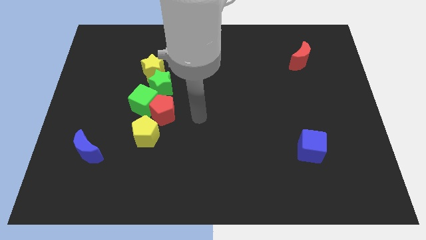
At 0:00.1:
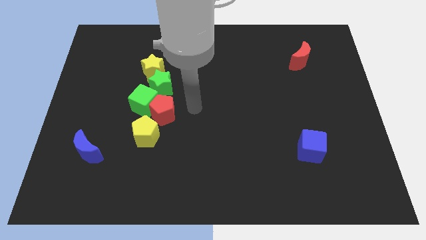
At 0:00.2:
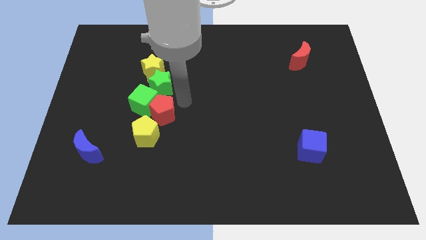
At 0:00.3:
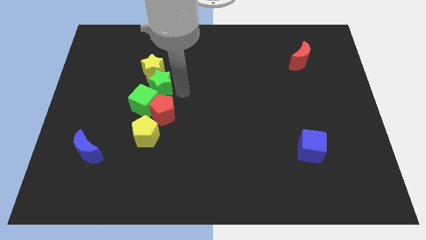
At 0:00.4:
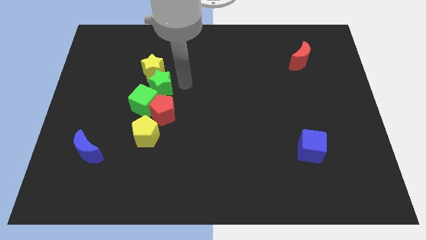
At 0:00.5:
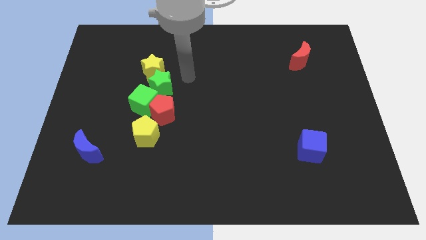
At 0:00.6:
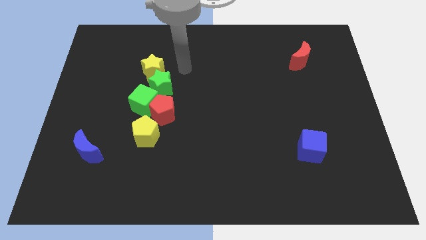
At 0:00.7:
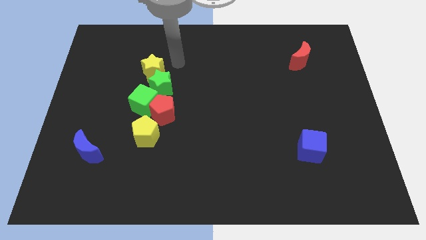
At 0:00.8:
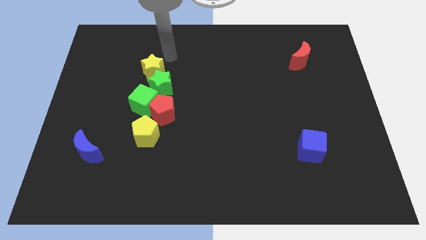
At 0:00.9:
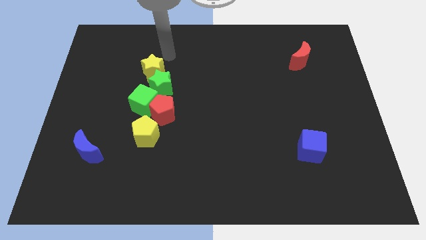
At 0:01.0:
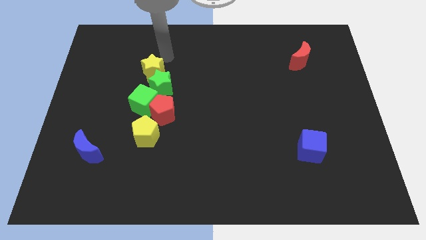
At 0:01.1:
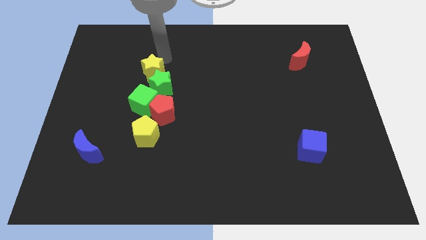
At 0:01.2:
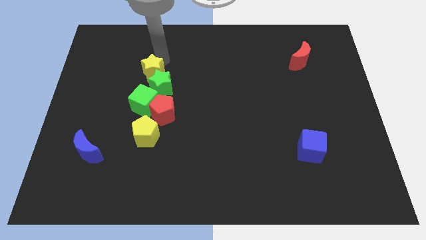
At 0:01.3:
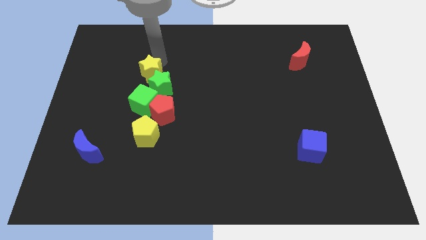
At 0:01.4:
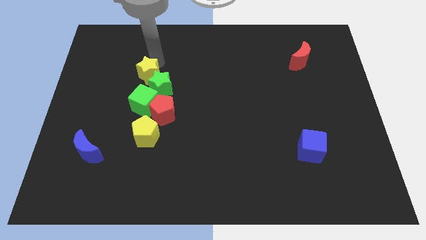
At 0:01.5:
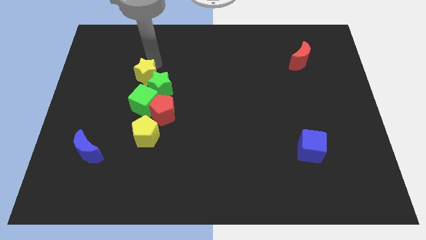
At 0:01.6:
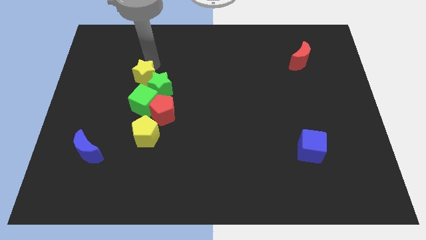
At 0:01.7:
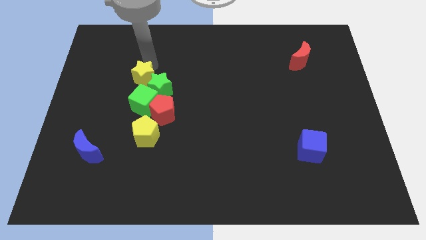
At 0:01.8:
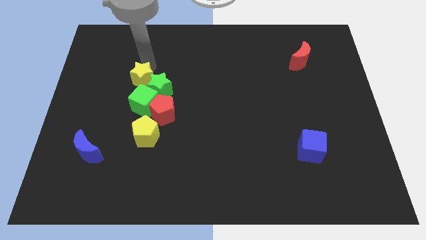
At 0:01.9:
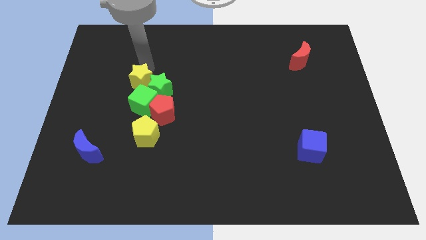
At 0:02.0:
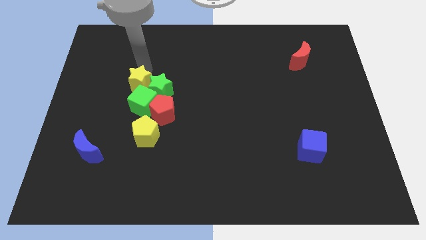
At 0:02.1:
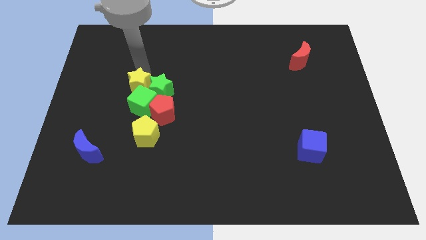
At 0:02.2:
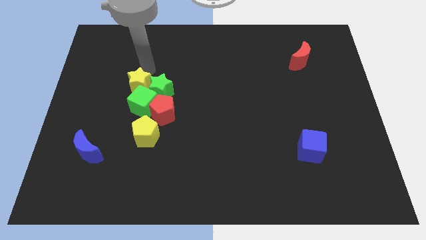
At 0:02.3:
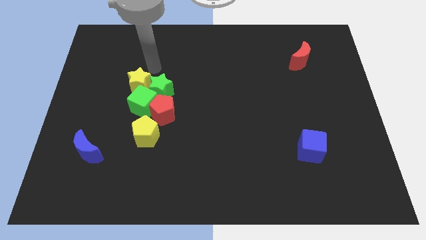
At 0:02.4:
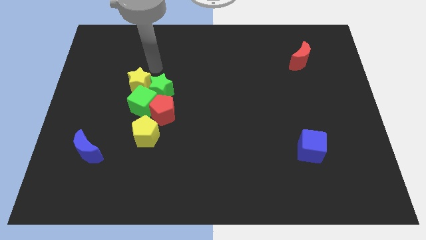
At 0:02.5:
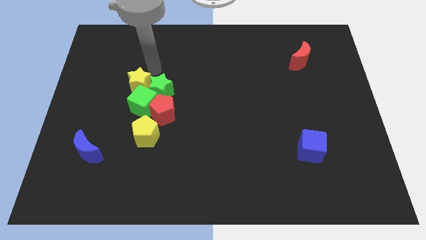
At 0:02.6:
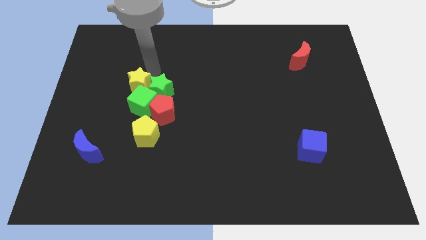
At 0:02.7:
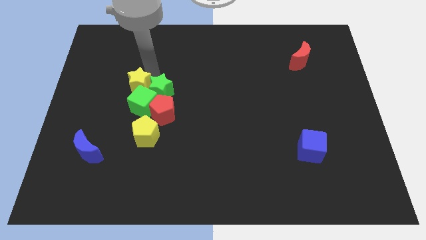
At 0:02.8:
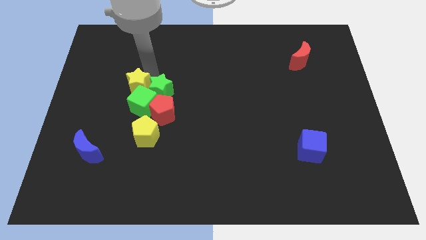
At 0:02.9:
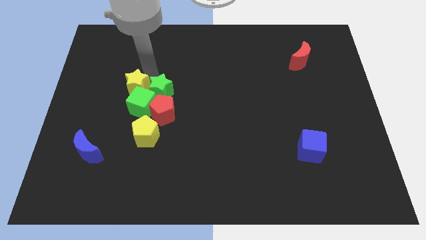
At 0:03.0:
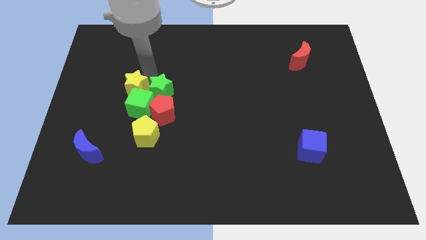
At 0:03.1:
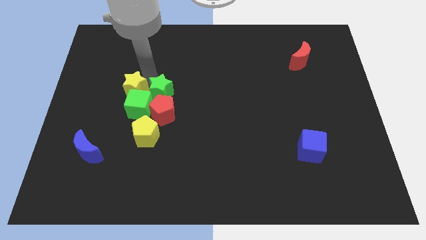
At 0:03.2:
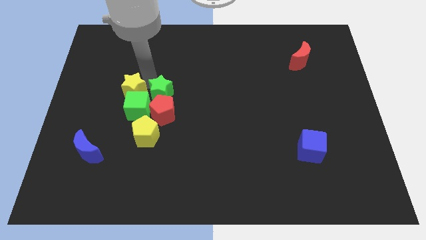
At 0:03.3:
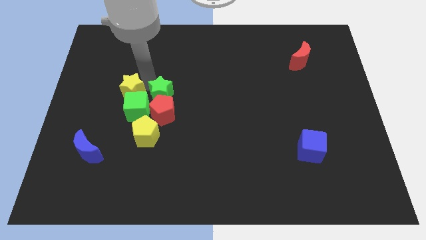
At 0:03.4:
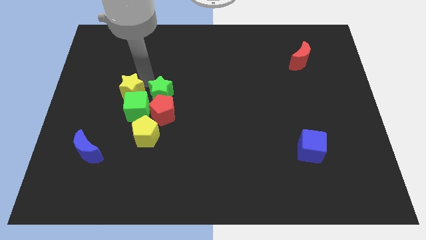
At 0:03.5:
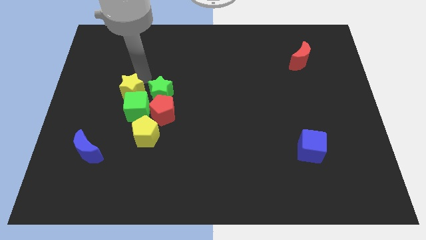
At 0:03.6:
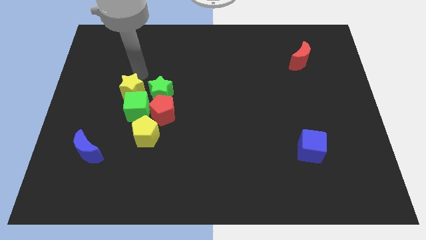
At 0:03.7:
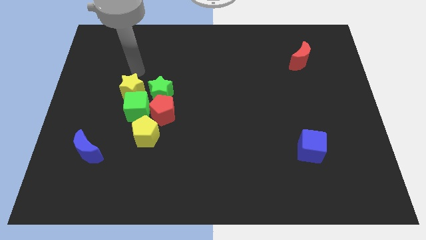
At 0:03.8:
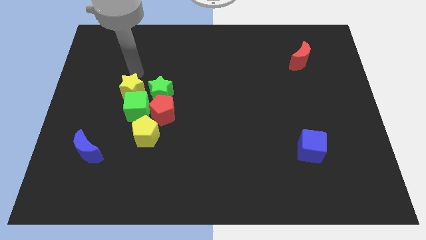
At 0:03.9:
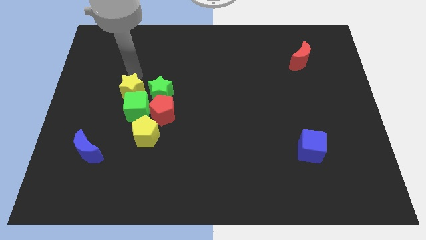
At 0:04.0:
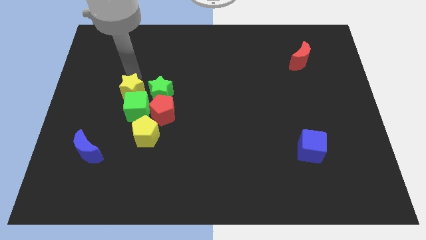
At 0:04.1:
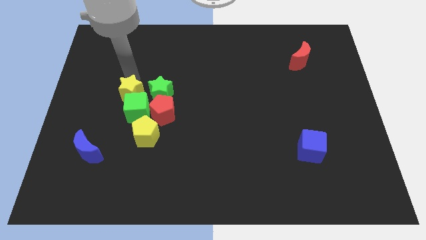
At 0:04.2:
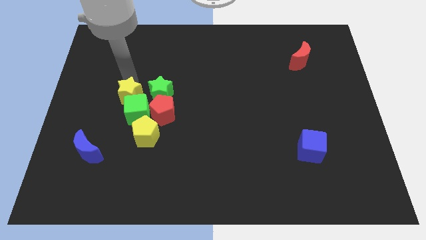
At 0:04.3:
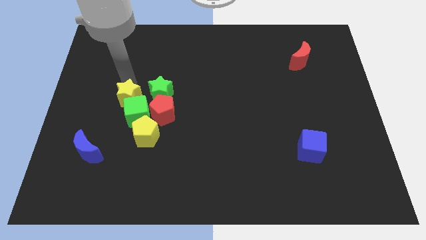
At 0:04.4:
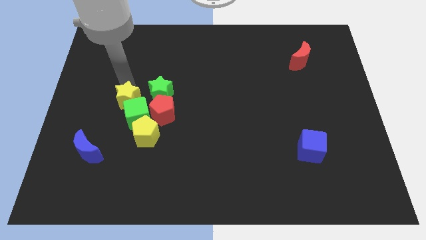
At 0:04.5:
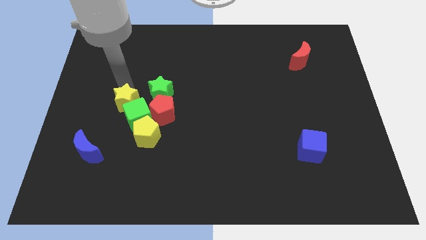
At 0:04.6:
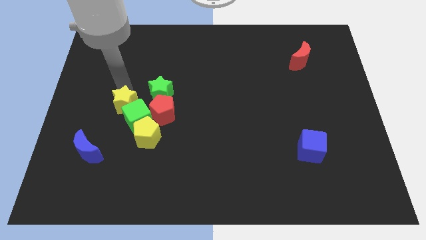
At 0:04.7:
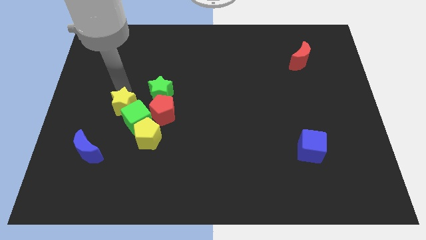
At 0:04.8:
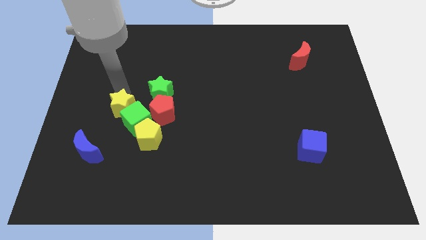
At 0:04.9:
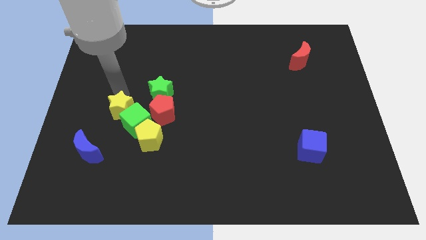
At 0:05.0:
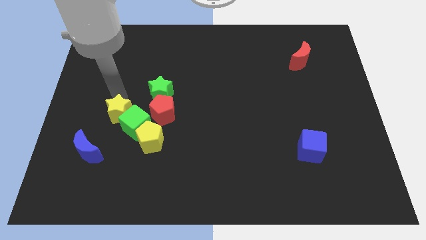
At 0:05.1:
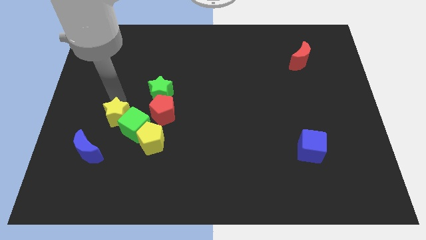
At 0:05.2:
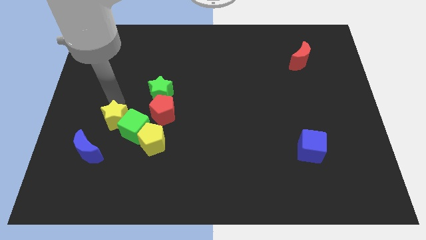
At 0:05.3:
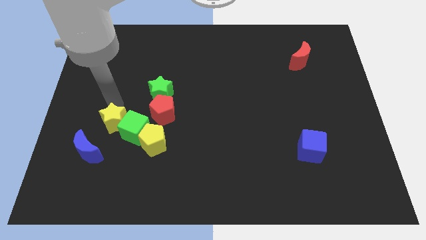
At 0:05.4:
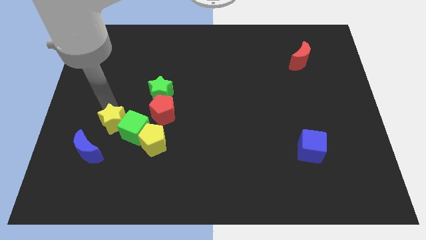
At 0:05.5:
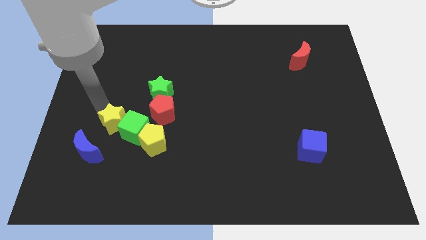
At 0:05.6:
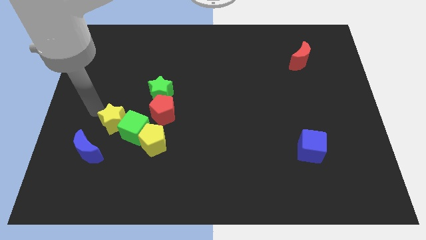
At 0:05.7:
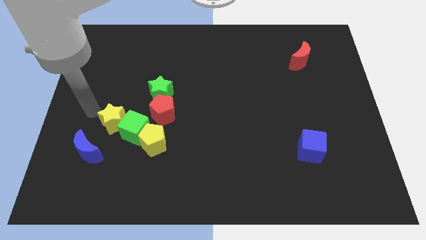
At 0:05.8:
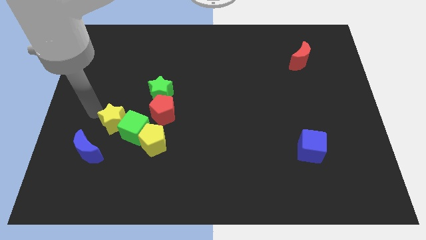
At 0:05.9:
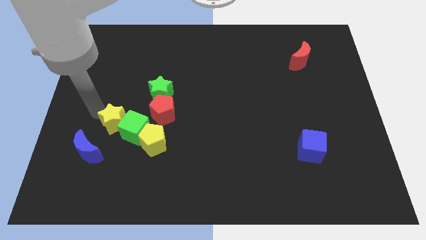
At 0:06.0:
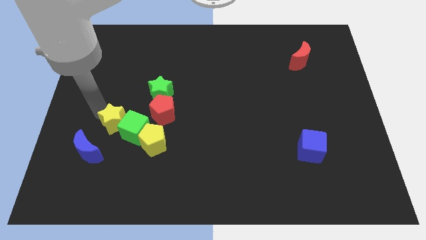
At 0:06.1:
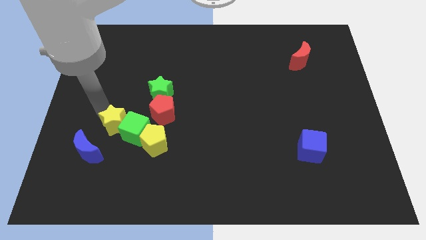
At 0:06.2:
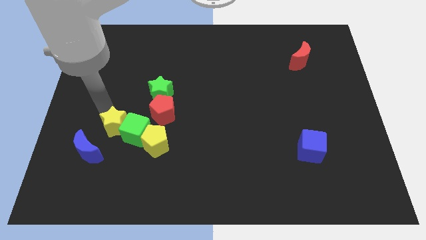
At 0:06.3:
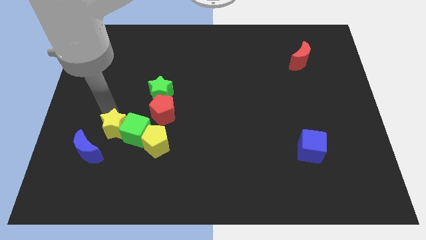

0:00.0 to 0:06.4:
push the yellow star to the bottom left of the red pentagon

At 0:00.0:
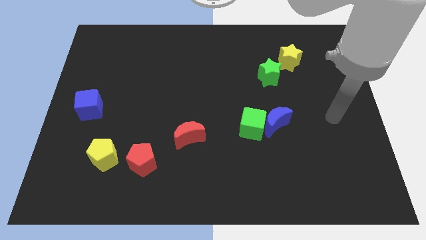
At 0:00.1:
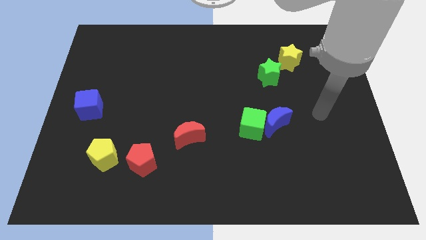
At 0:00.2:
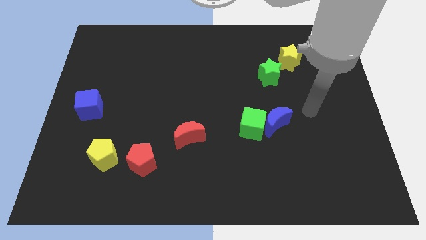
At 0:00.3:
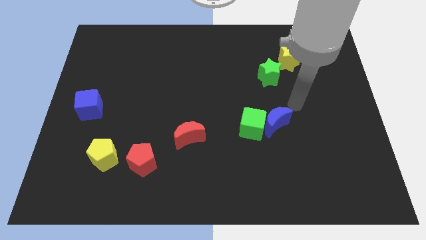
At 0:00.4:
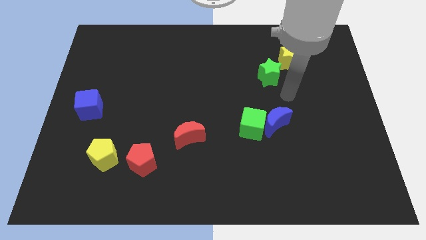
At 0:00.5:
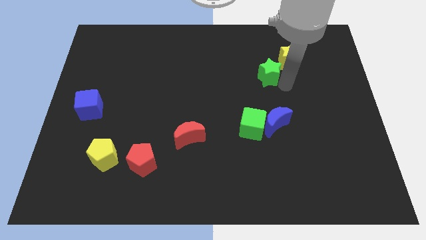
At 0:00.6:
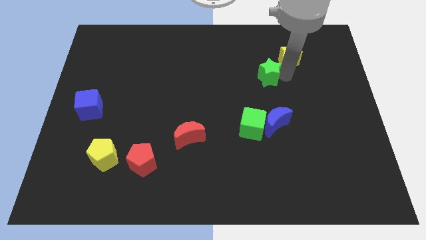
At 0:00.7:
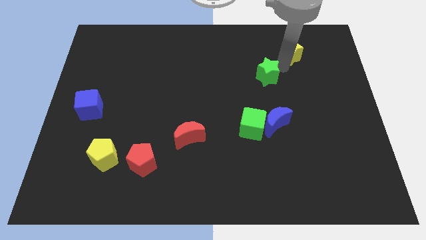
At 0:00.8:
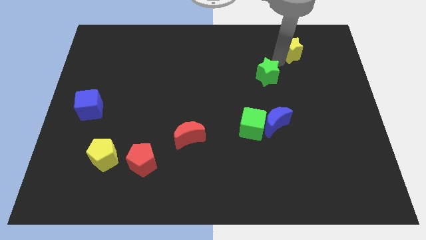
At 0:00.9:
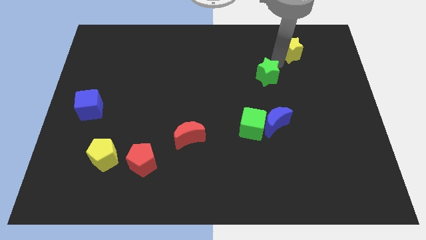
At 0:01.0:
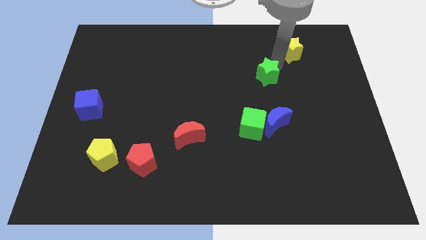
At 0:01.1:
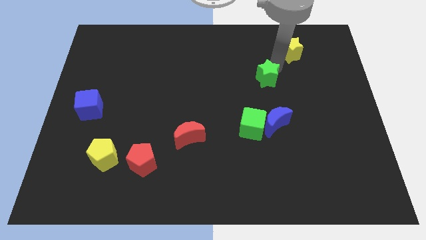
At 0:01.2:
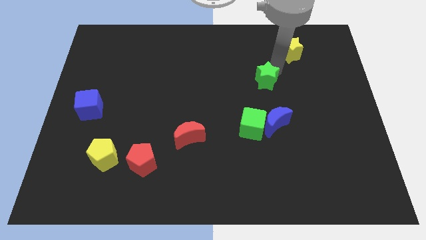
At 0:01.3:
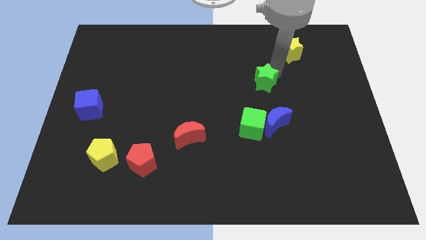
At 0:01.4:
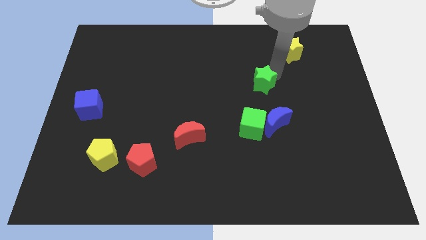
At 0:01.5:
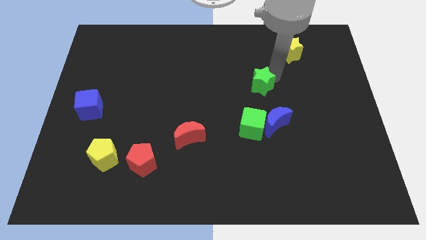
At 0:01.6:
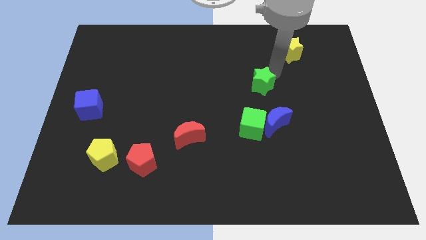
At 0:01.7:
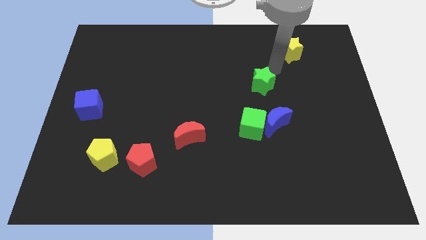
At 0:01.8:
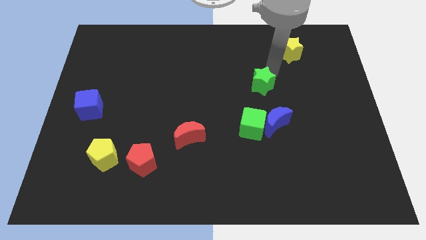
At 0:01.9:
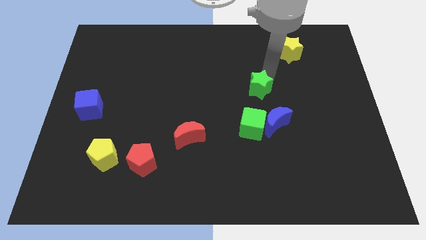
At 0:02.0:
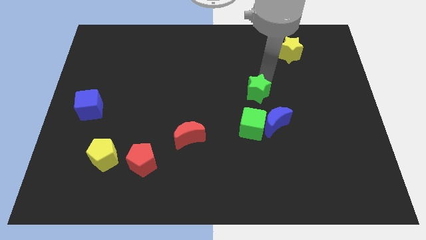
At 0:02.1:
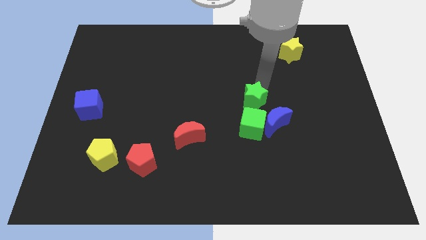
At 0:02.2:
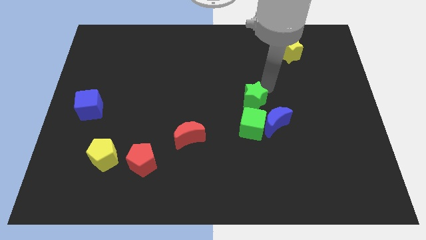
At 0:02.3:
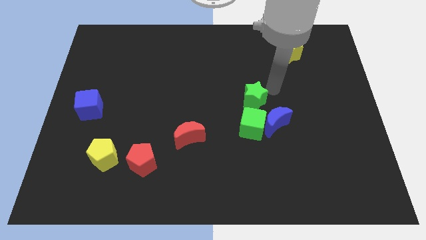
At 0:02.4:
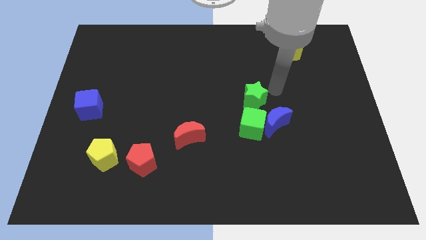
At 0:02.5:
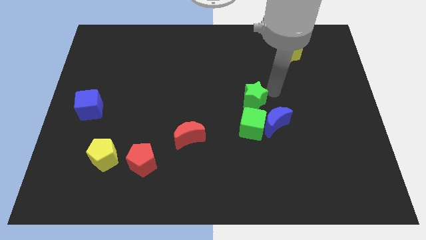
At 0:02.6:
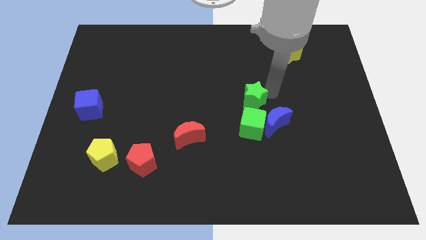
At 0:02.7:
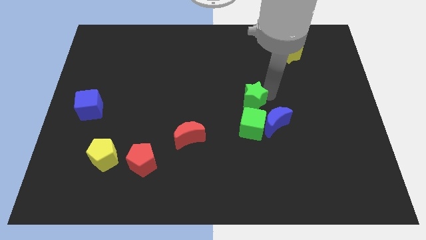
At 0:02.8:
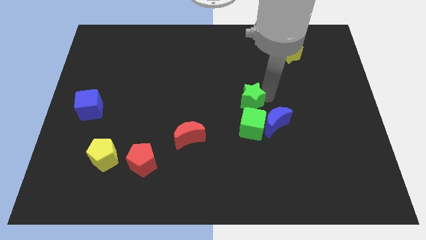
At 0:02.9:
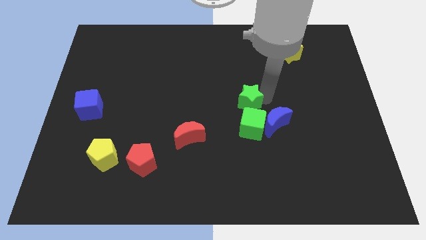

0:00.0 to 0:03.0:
slide the green star to the top left of the green cube
